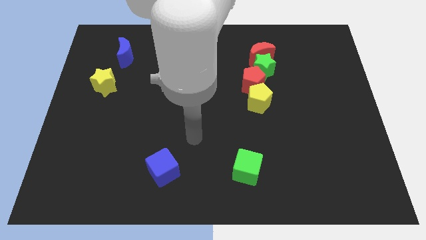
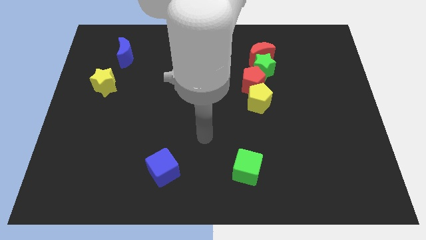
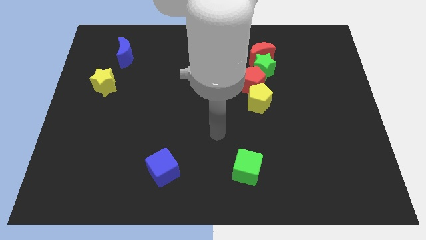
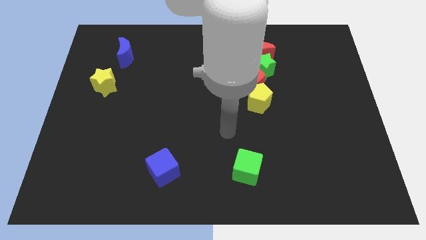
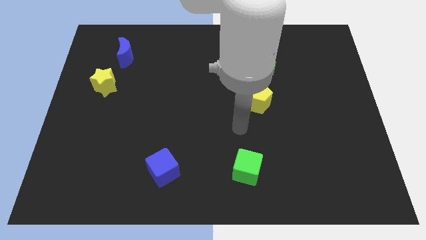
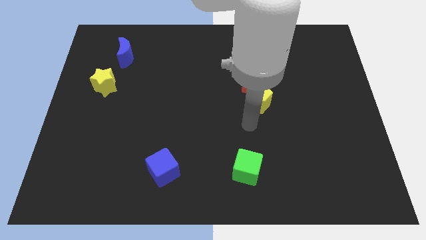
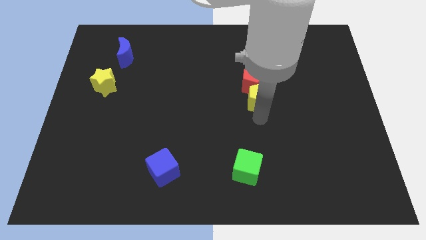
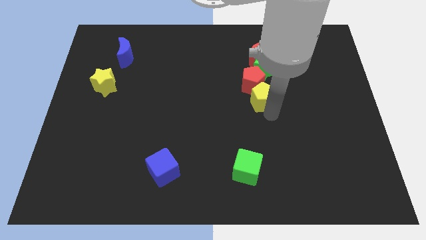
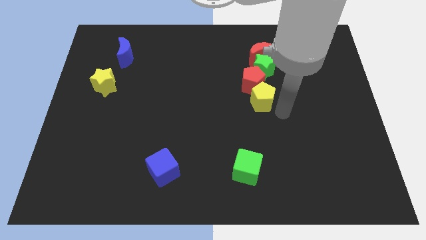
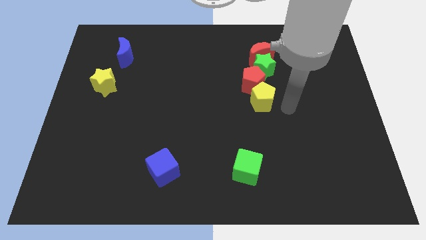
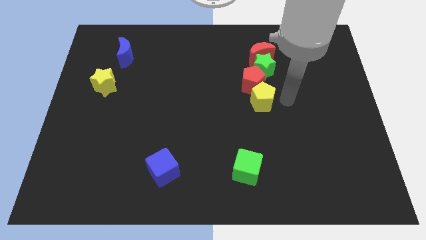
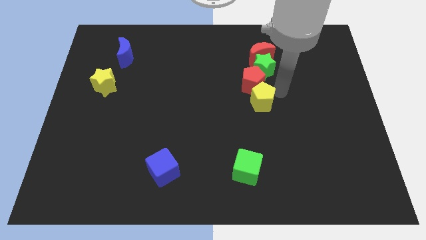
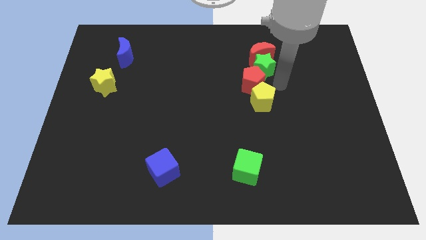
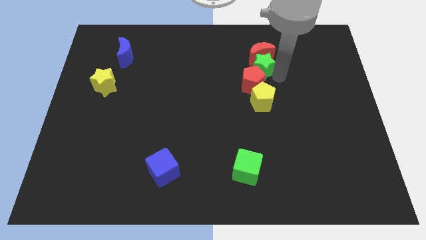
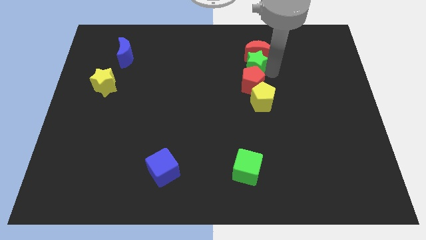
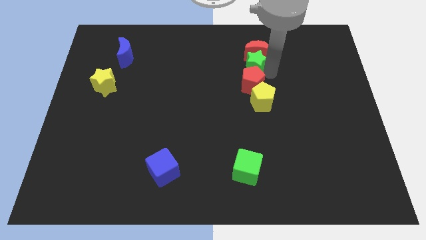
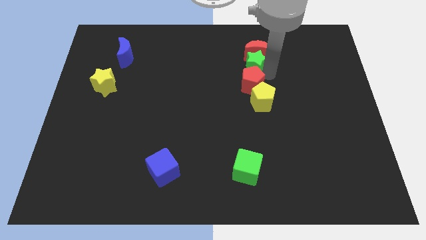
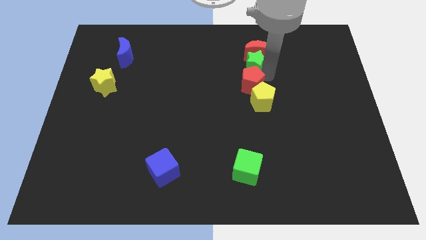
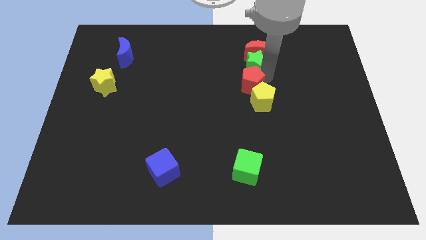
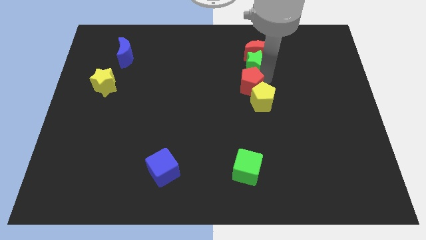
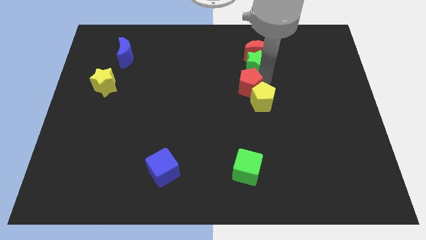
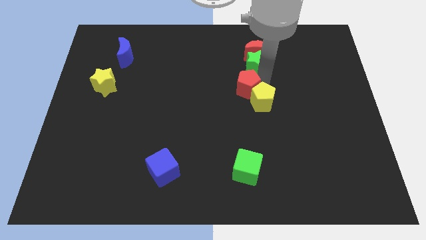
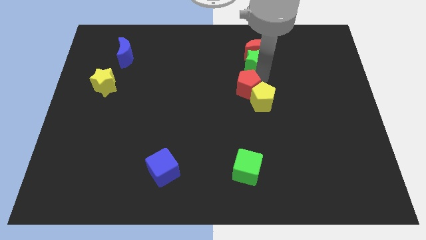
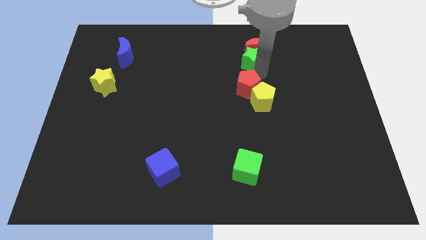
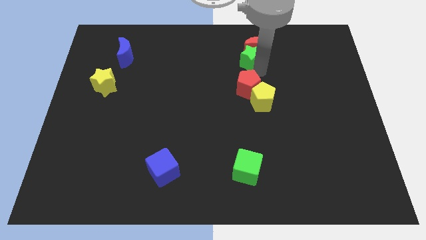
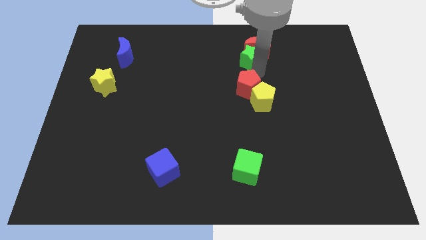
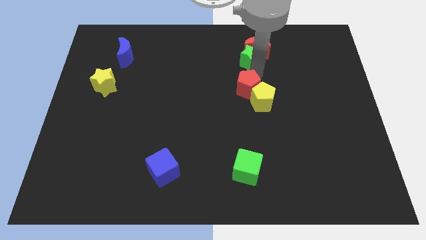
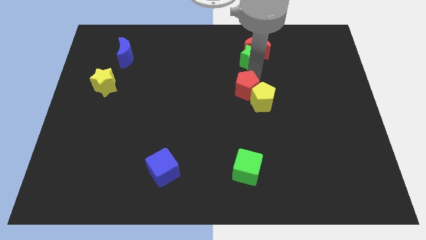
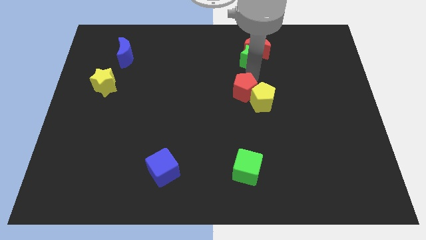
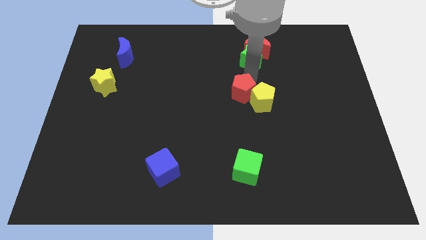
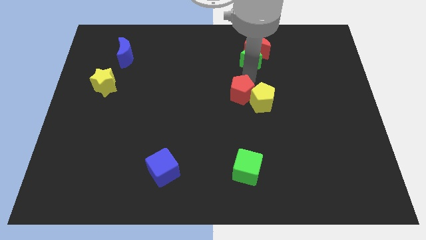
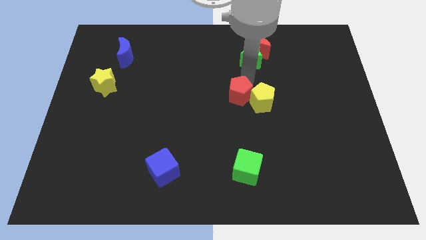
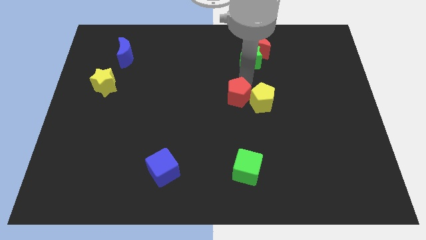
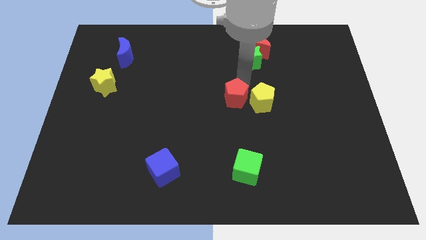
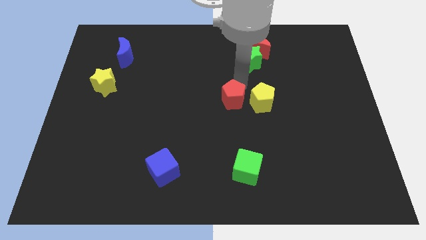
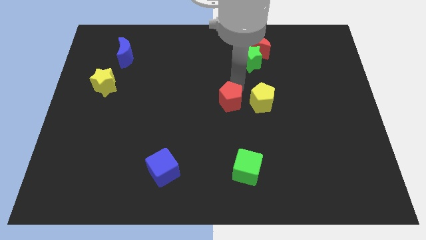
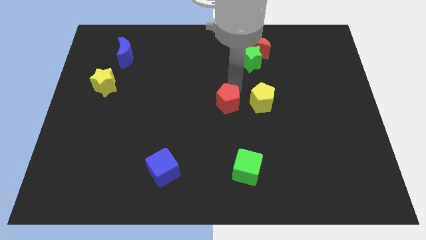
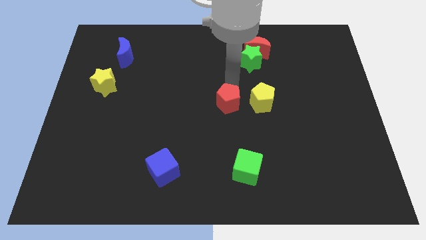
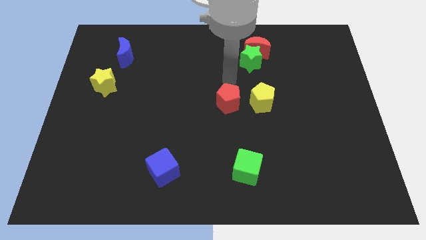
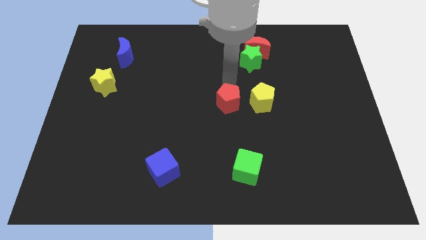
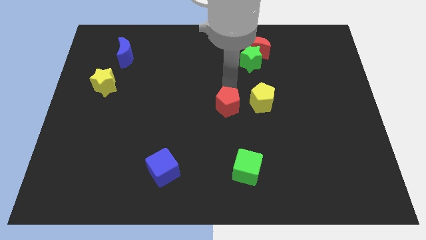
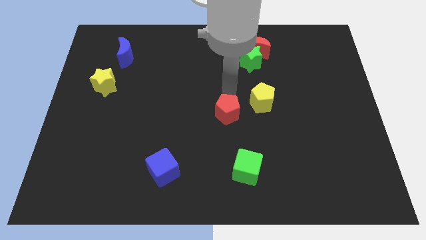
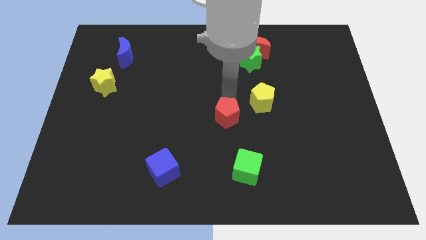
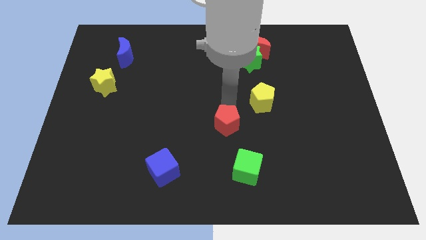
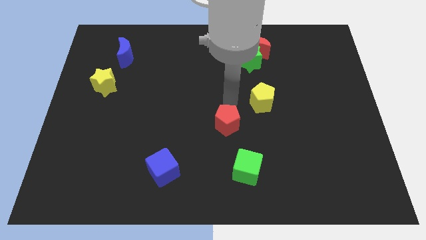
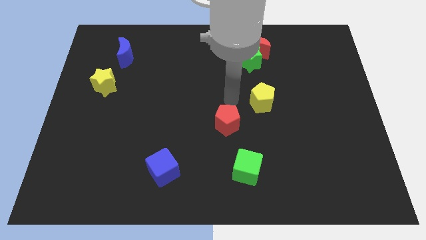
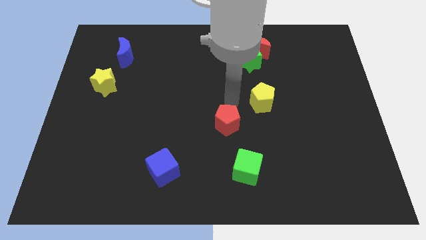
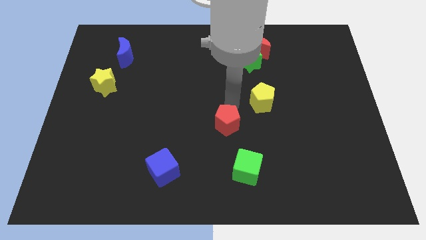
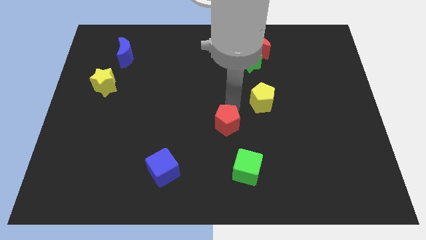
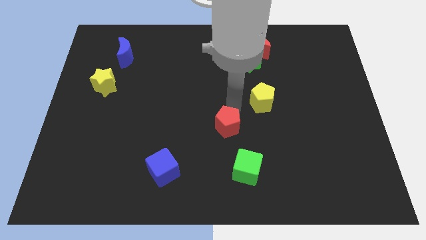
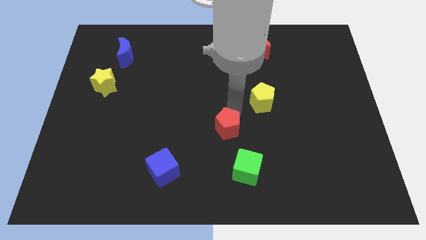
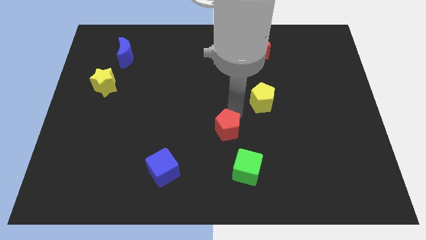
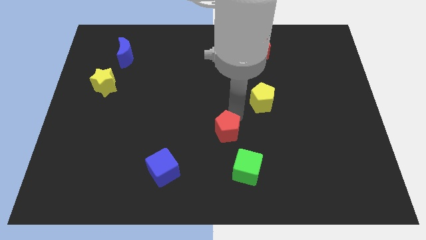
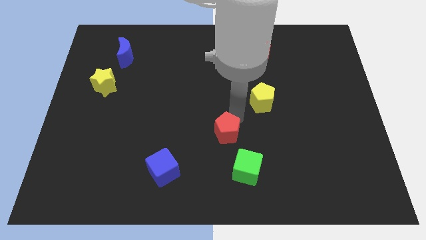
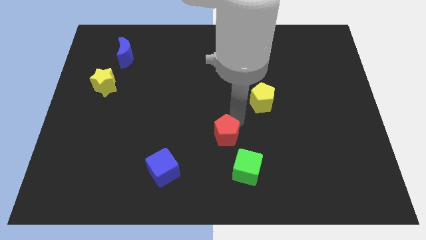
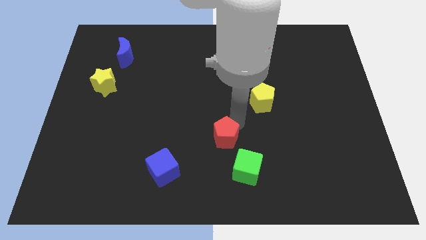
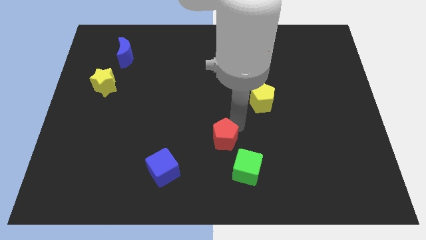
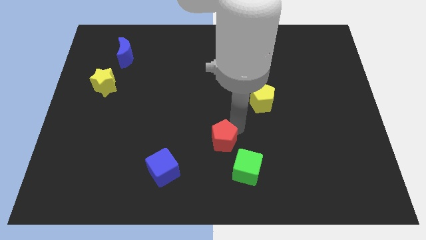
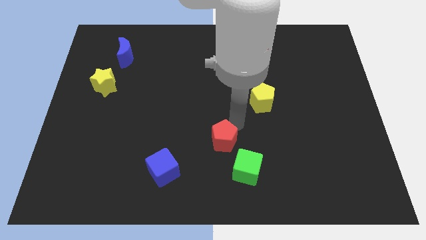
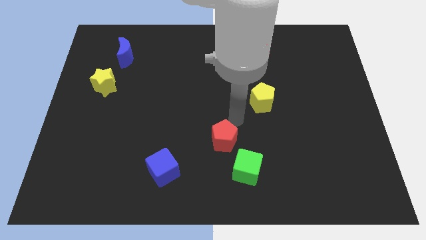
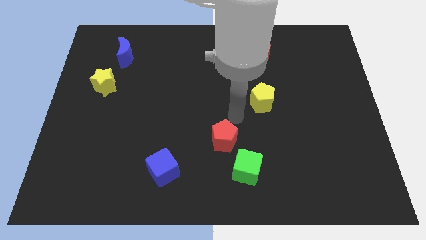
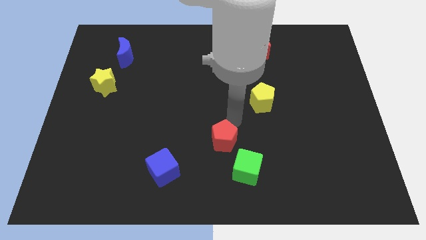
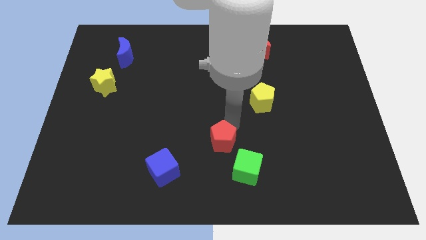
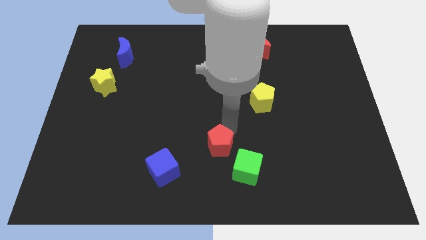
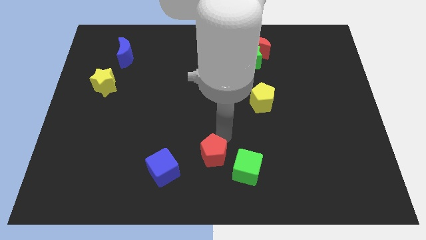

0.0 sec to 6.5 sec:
put the red pentagon to the bottom side
